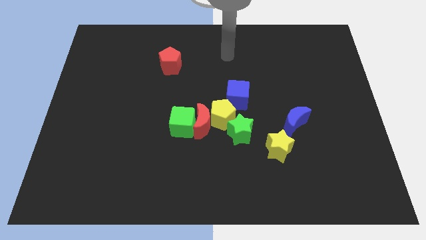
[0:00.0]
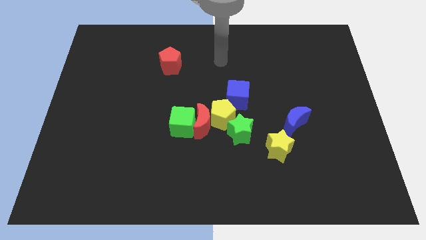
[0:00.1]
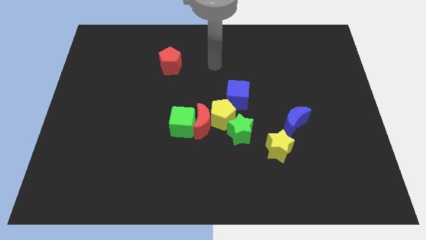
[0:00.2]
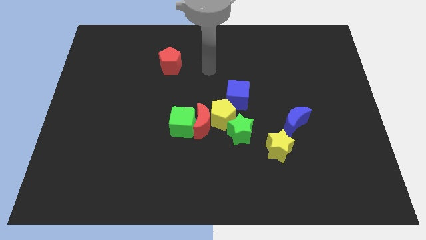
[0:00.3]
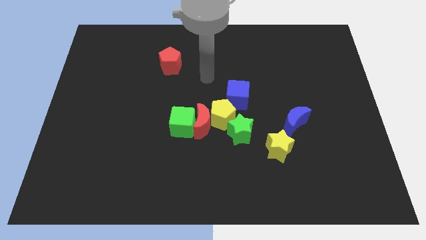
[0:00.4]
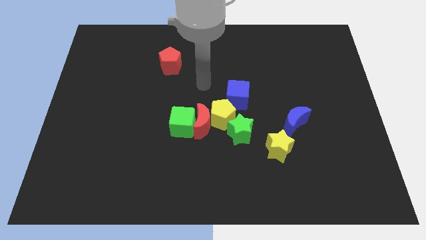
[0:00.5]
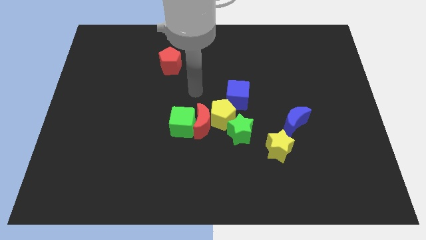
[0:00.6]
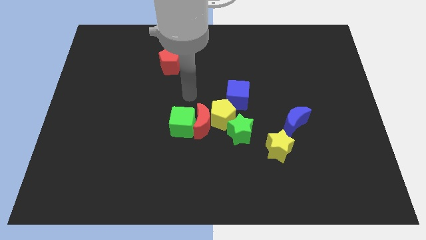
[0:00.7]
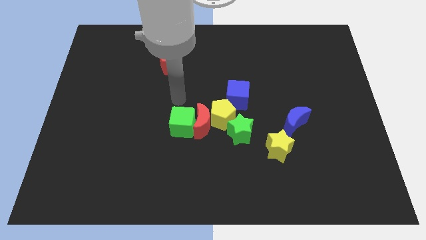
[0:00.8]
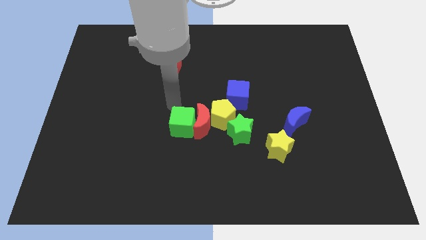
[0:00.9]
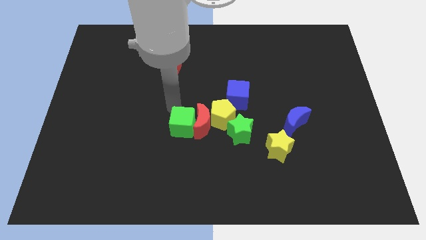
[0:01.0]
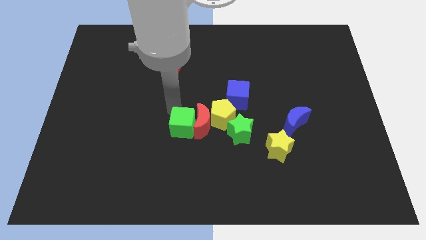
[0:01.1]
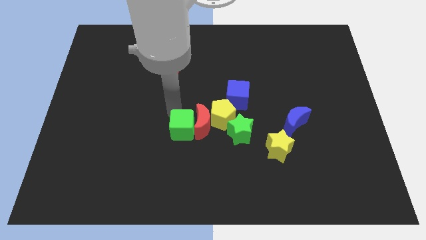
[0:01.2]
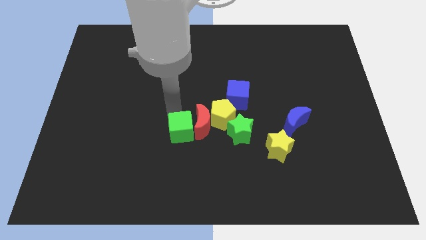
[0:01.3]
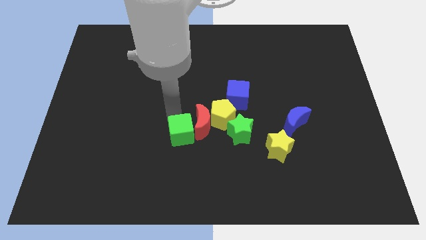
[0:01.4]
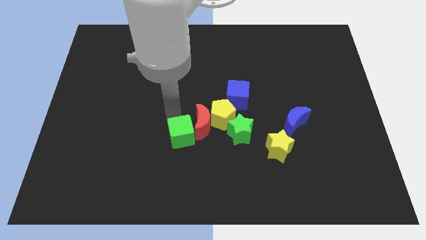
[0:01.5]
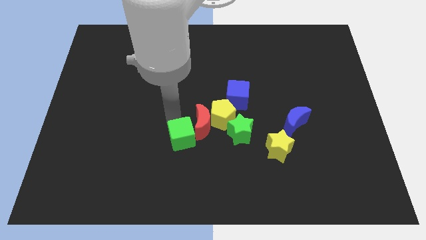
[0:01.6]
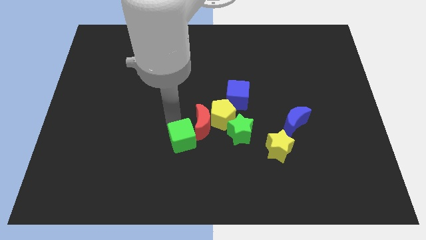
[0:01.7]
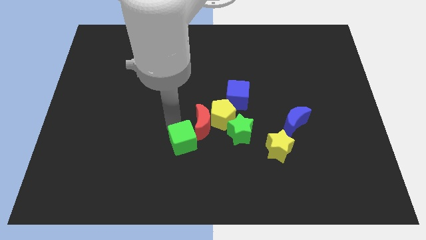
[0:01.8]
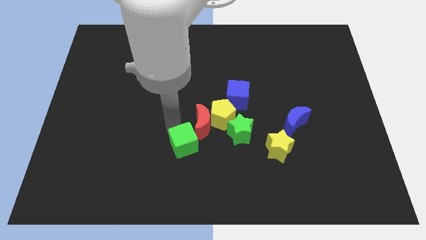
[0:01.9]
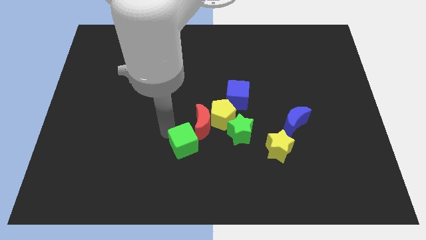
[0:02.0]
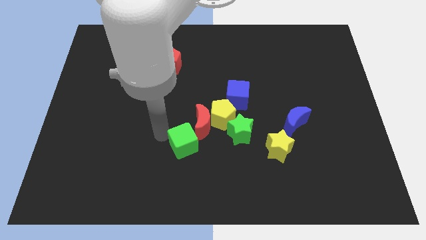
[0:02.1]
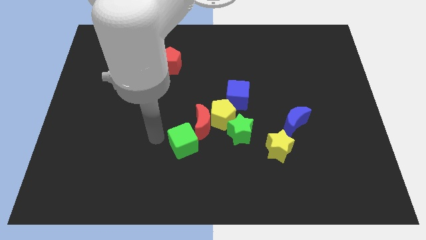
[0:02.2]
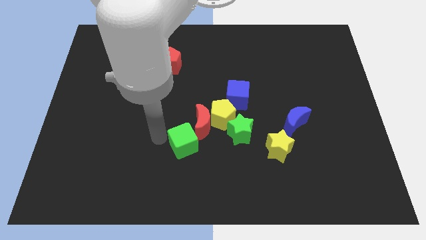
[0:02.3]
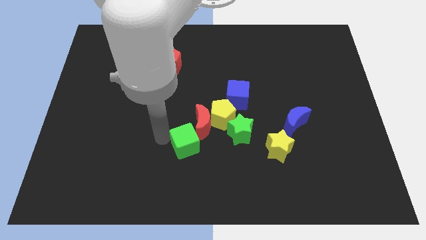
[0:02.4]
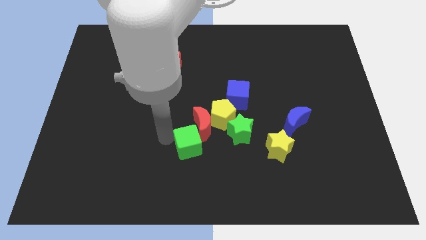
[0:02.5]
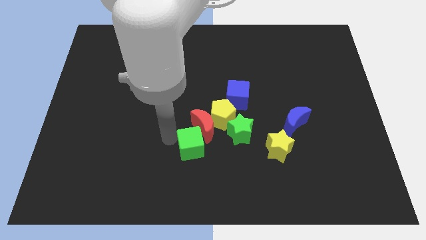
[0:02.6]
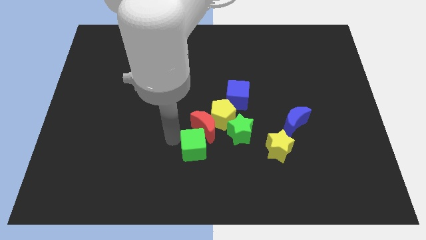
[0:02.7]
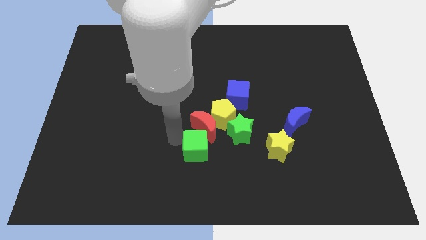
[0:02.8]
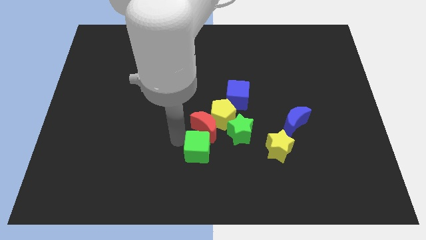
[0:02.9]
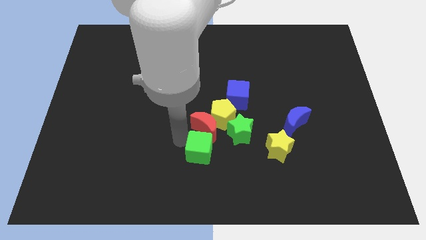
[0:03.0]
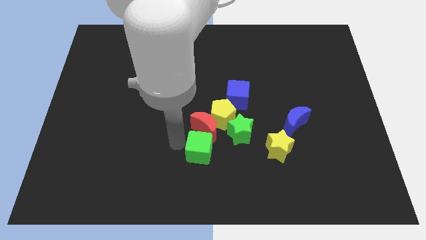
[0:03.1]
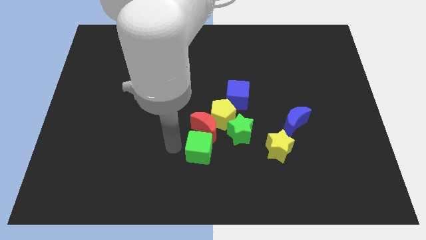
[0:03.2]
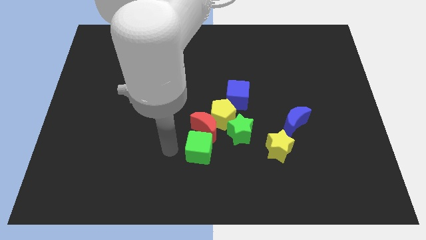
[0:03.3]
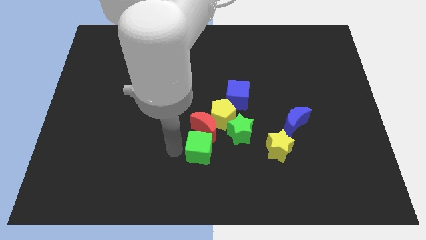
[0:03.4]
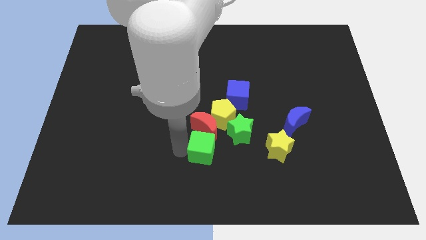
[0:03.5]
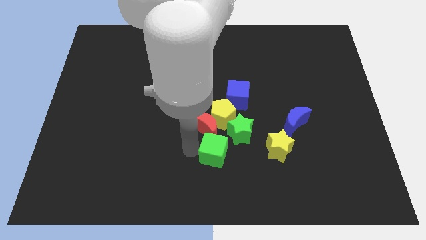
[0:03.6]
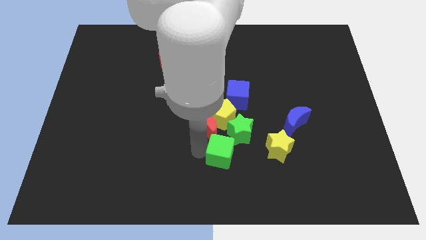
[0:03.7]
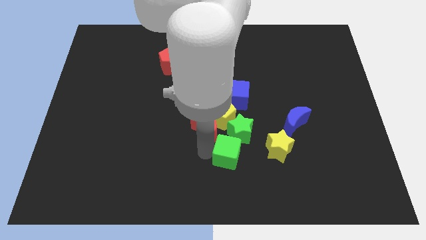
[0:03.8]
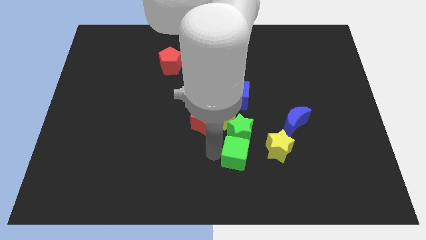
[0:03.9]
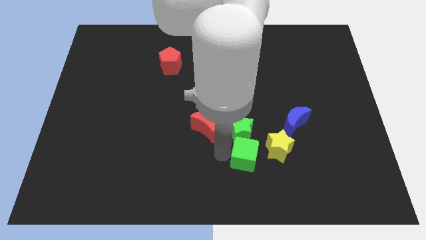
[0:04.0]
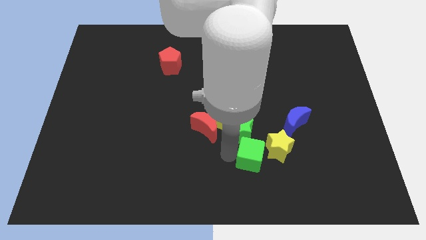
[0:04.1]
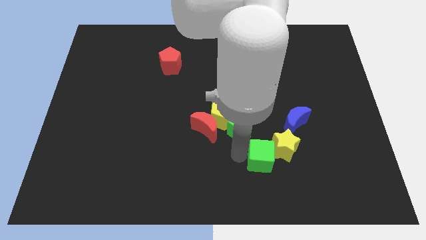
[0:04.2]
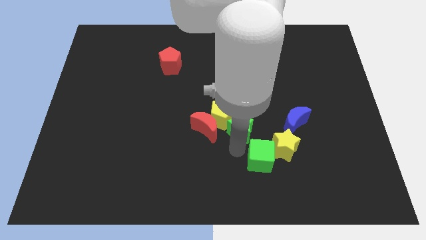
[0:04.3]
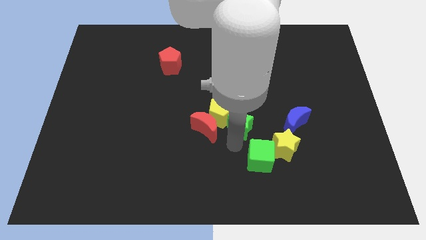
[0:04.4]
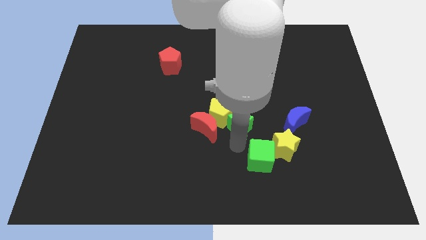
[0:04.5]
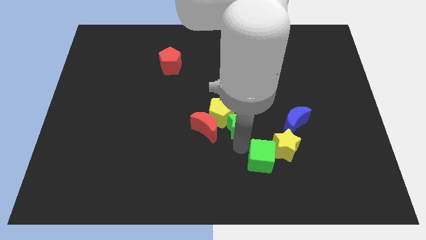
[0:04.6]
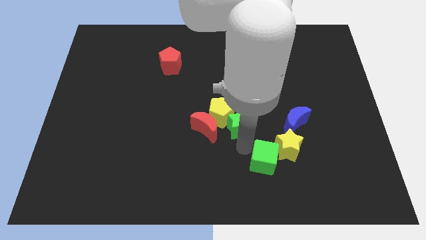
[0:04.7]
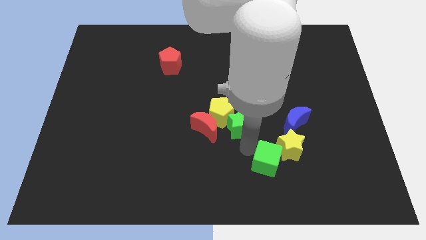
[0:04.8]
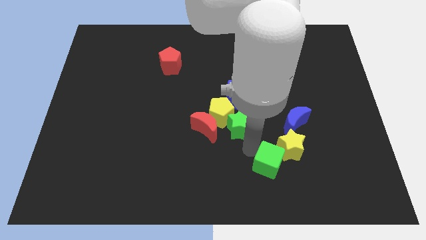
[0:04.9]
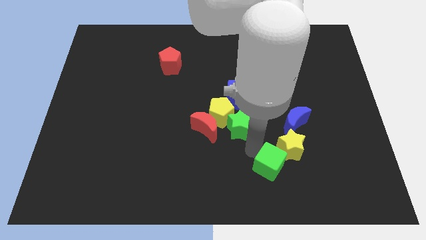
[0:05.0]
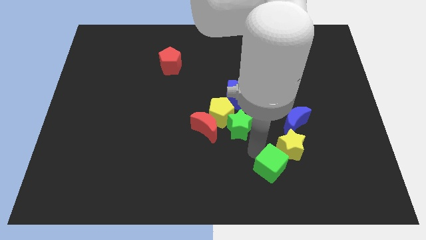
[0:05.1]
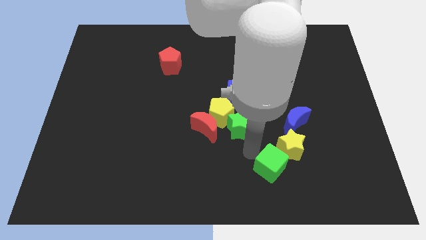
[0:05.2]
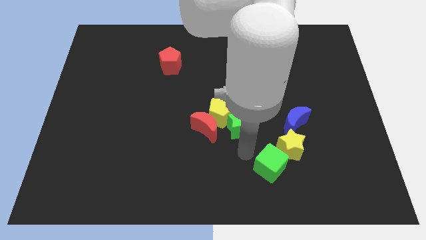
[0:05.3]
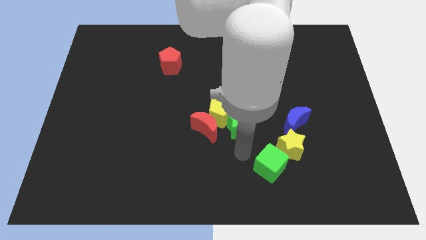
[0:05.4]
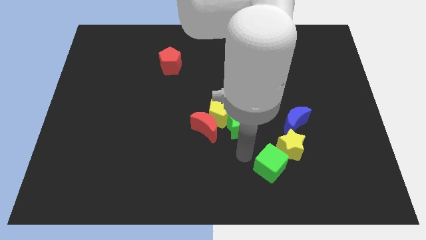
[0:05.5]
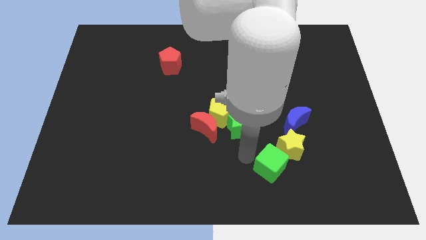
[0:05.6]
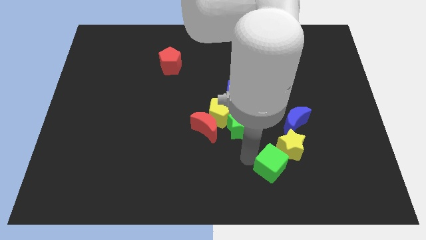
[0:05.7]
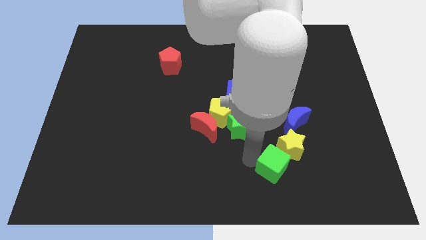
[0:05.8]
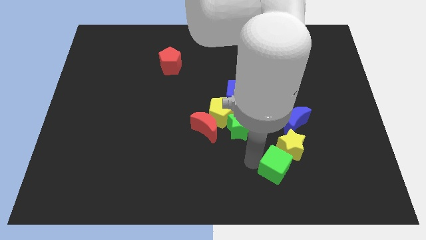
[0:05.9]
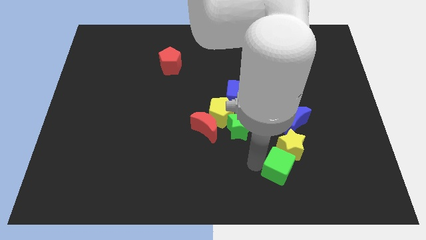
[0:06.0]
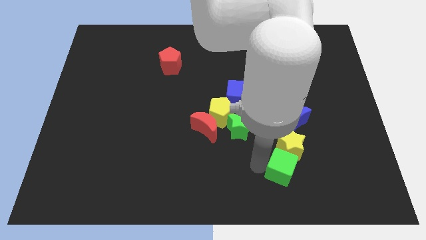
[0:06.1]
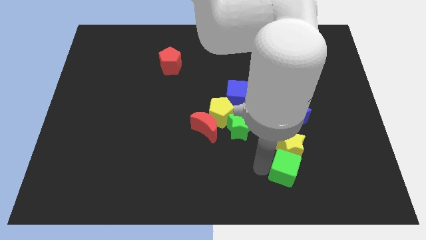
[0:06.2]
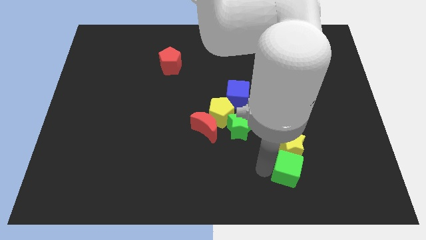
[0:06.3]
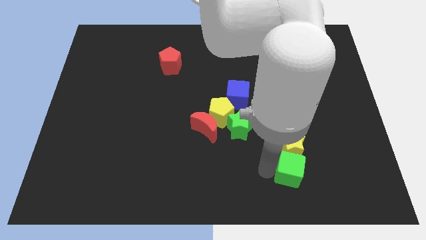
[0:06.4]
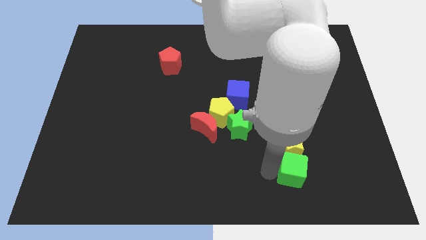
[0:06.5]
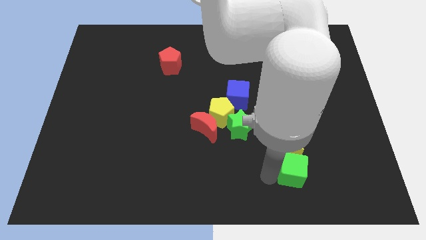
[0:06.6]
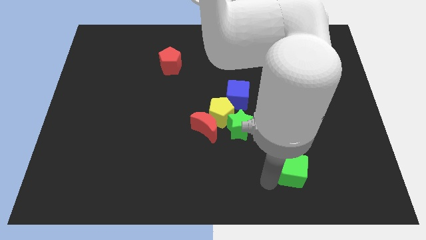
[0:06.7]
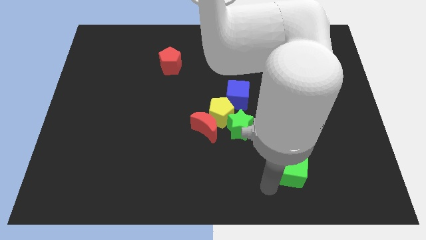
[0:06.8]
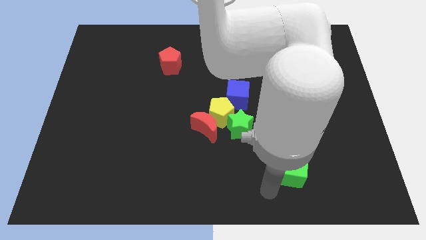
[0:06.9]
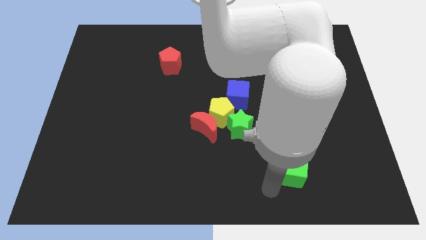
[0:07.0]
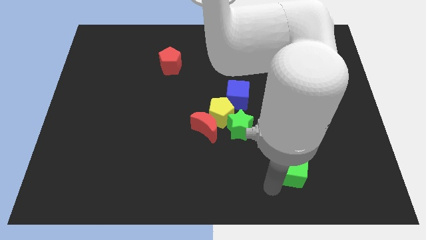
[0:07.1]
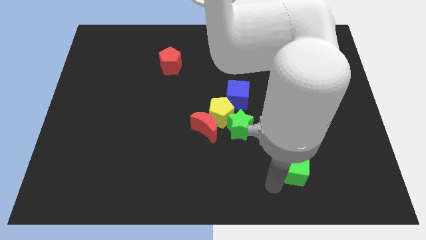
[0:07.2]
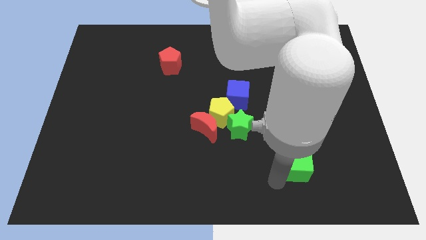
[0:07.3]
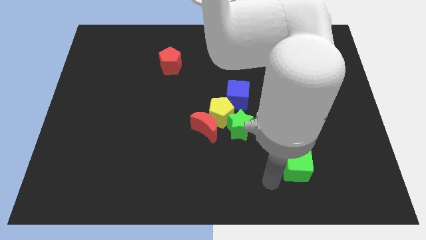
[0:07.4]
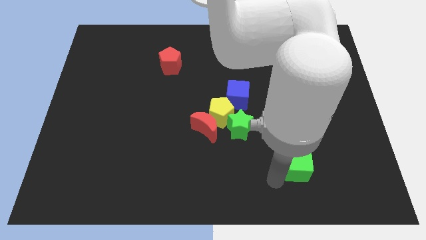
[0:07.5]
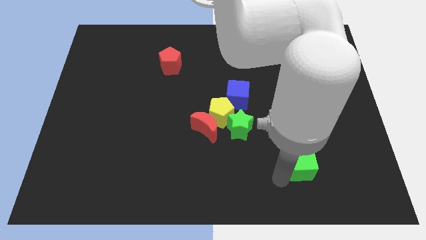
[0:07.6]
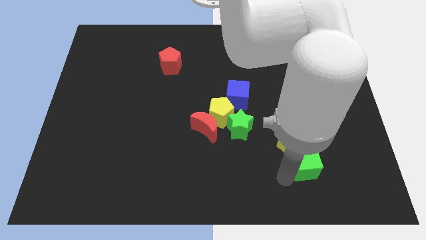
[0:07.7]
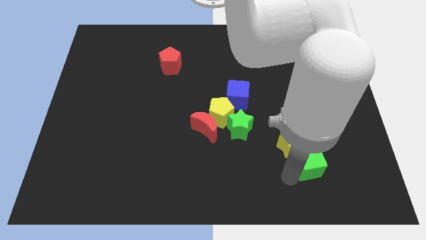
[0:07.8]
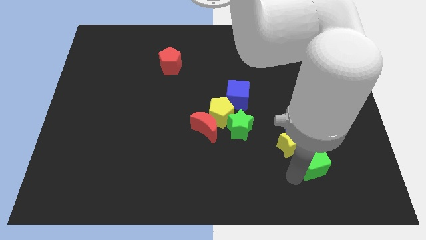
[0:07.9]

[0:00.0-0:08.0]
put the green cube right of the yellow star
